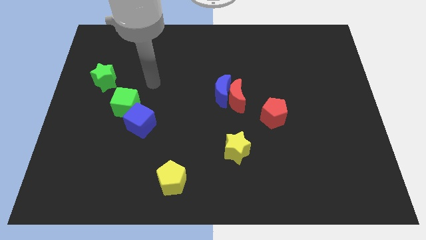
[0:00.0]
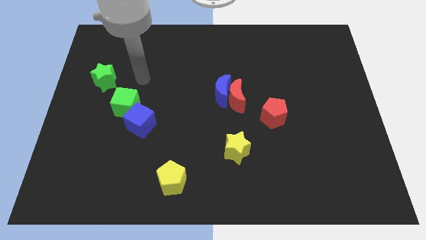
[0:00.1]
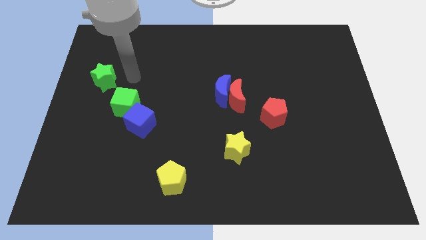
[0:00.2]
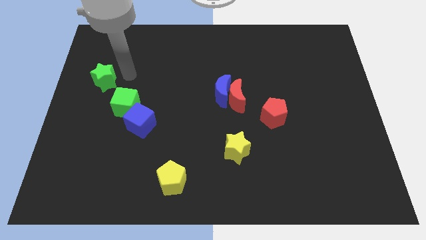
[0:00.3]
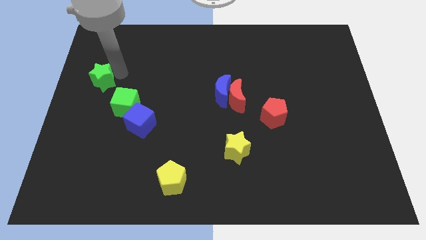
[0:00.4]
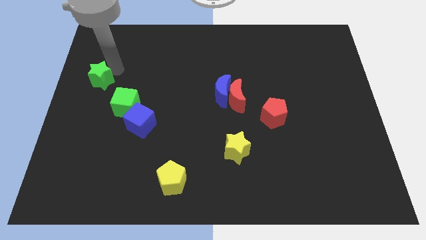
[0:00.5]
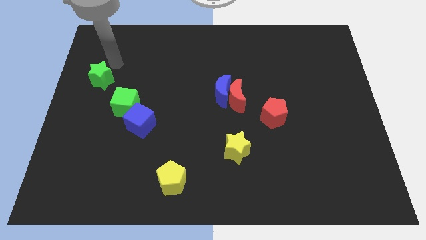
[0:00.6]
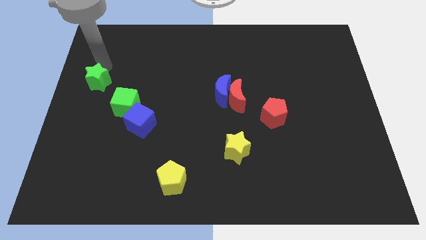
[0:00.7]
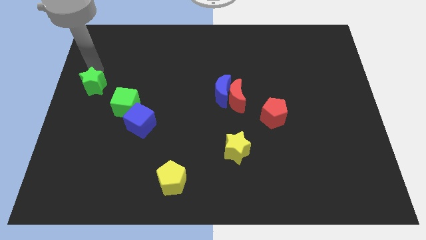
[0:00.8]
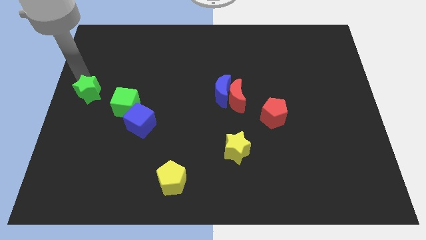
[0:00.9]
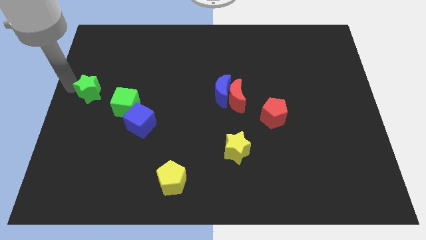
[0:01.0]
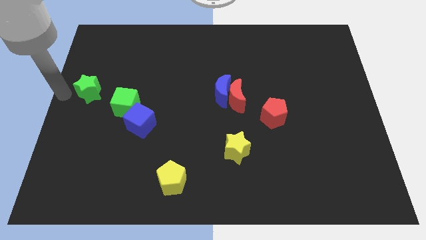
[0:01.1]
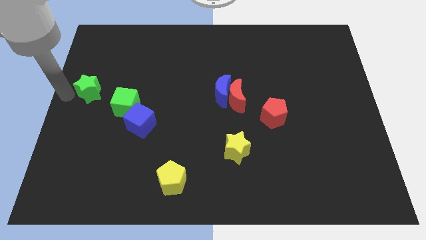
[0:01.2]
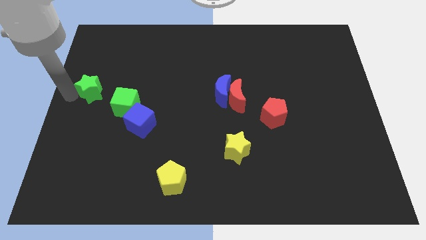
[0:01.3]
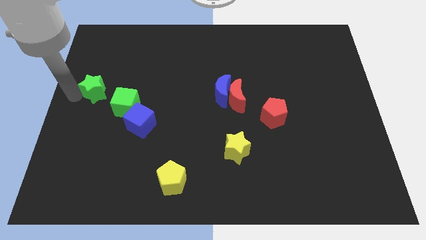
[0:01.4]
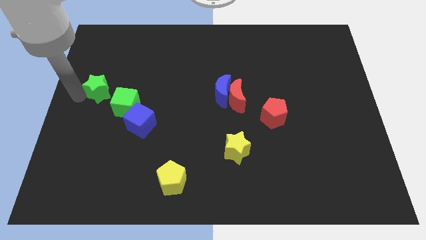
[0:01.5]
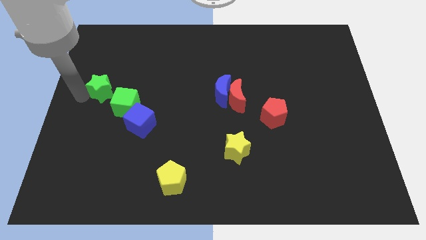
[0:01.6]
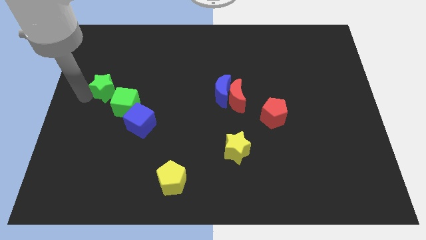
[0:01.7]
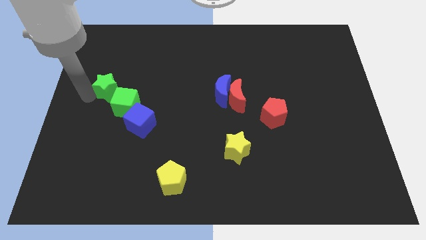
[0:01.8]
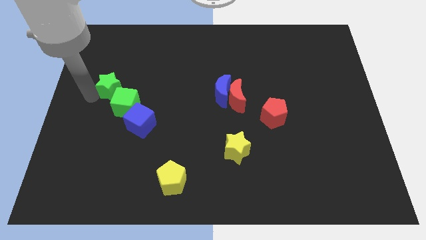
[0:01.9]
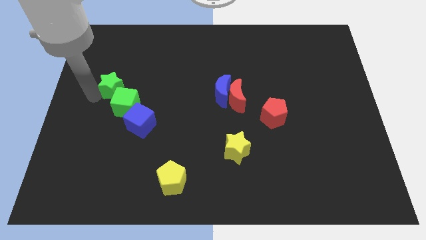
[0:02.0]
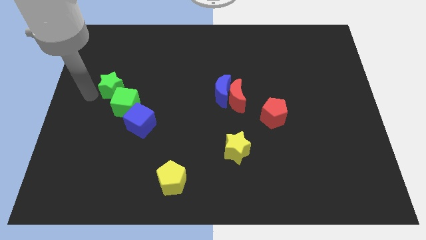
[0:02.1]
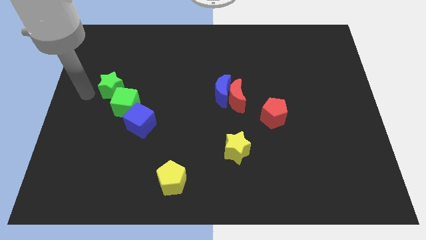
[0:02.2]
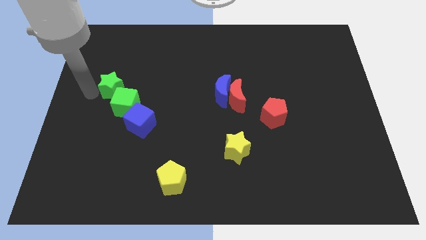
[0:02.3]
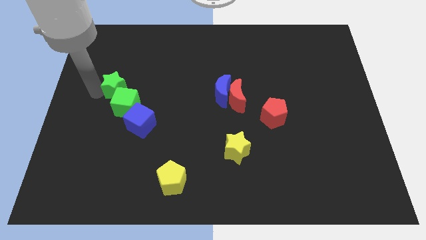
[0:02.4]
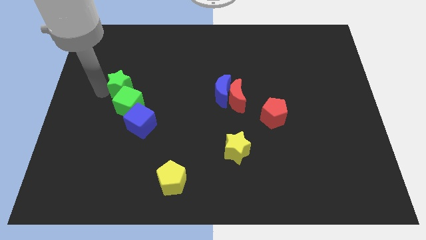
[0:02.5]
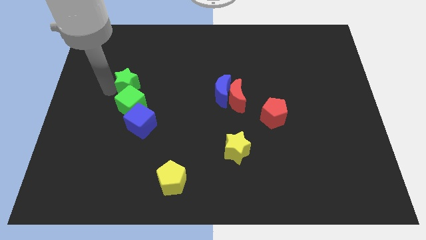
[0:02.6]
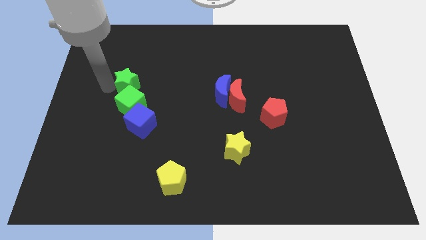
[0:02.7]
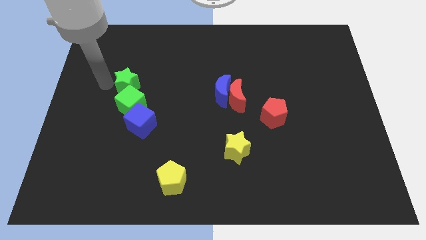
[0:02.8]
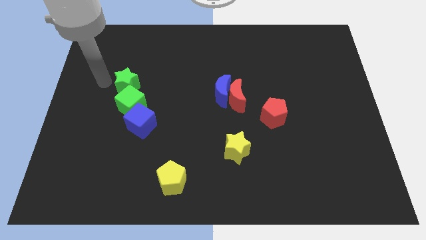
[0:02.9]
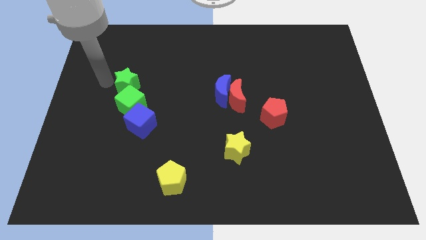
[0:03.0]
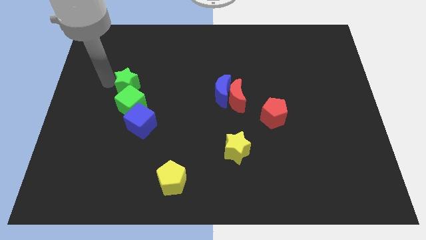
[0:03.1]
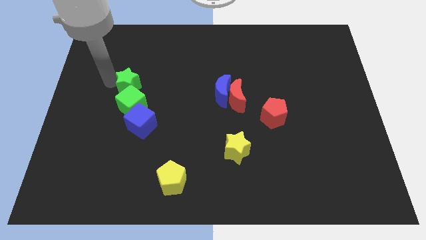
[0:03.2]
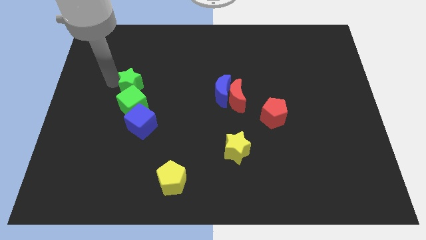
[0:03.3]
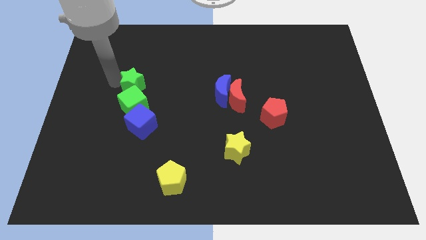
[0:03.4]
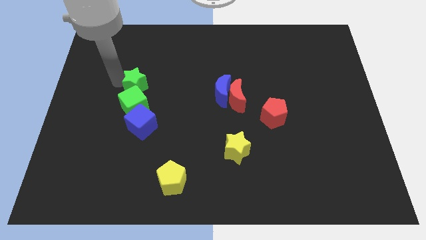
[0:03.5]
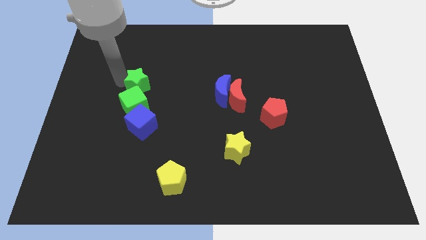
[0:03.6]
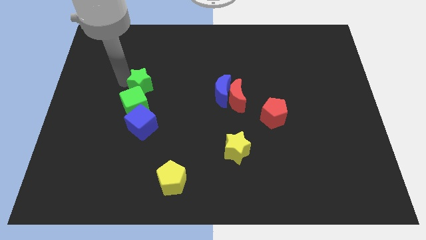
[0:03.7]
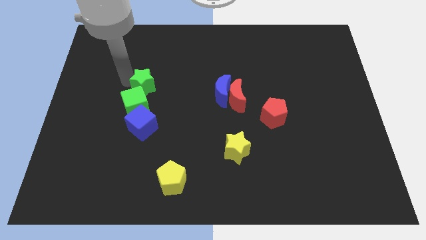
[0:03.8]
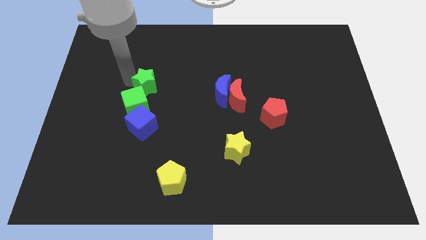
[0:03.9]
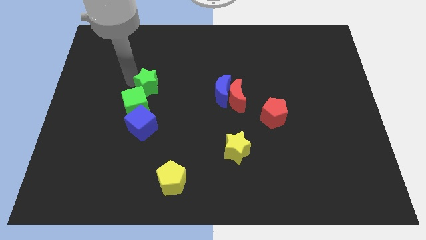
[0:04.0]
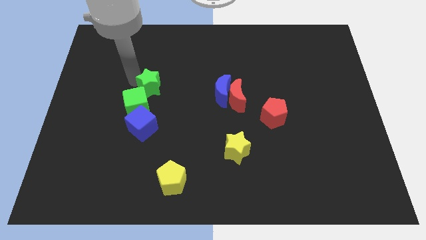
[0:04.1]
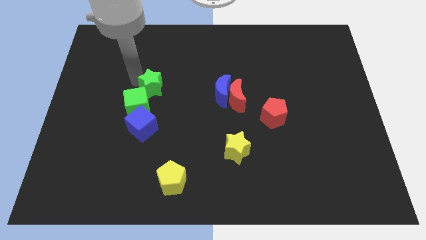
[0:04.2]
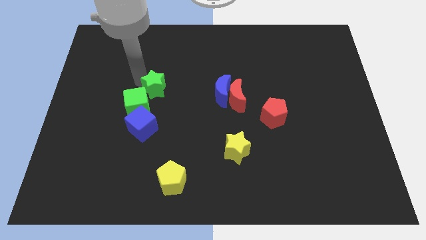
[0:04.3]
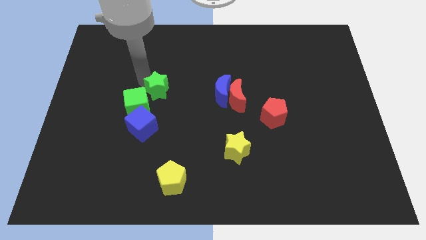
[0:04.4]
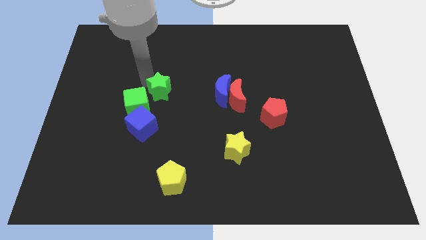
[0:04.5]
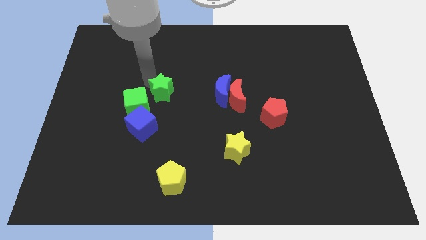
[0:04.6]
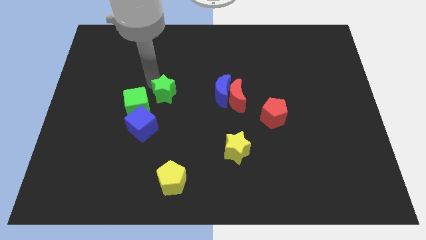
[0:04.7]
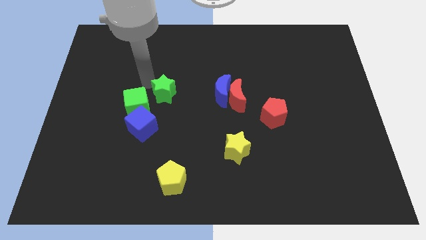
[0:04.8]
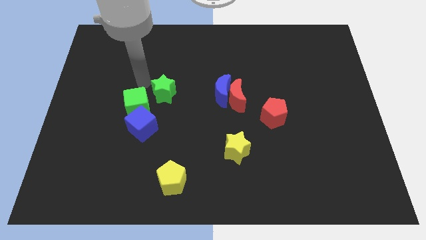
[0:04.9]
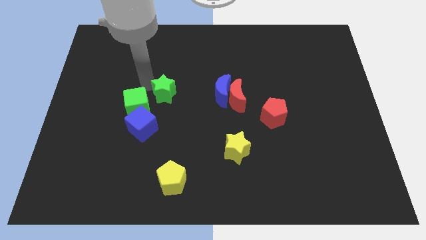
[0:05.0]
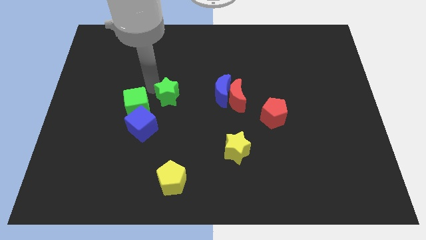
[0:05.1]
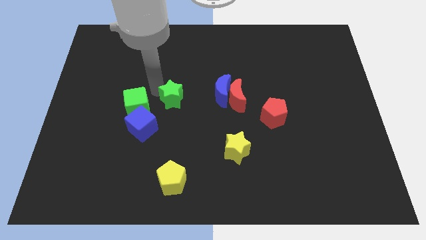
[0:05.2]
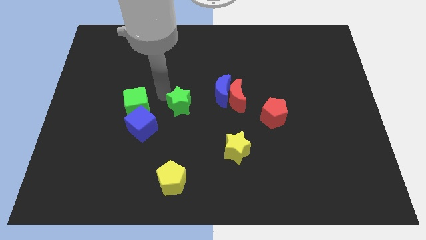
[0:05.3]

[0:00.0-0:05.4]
push the green star to the bottom left of the blue moon

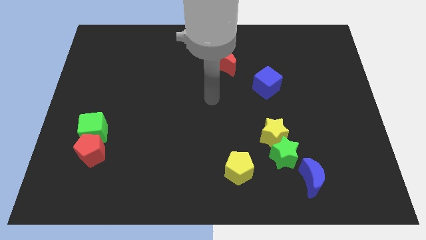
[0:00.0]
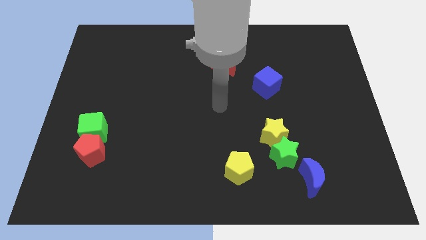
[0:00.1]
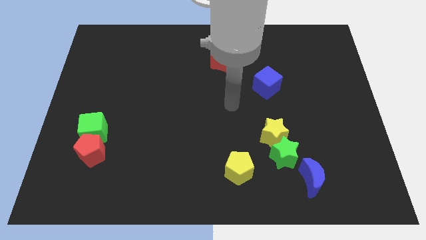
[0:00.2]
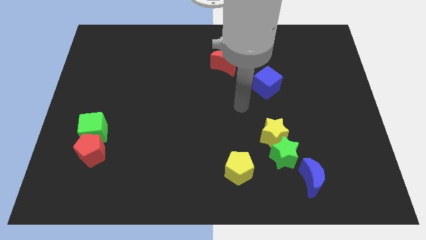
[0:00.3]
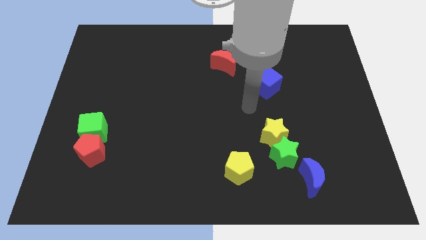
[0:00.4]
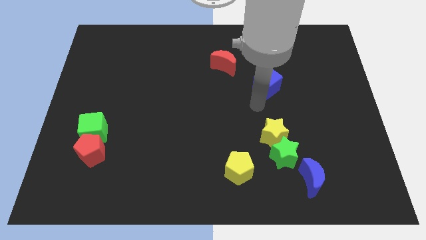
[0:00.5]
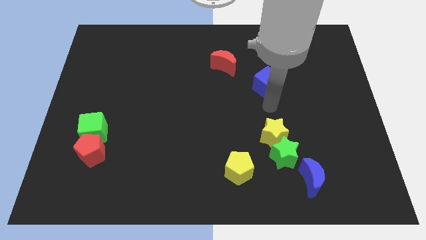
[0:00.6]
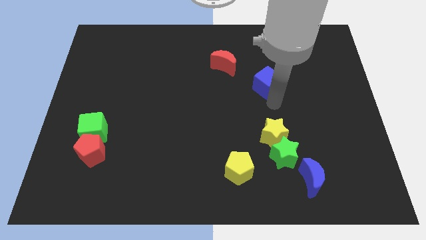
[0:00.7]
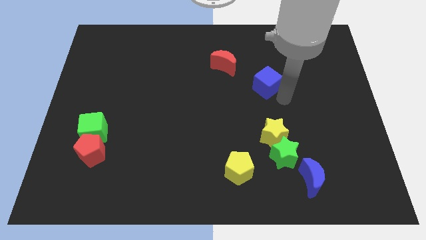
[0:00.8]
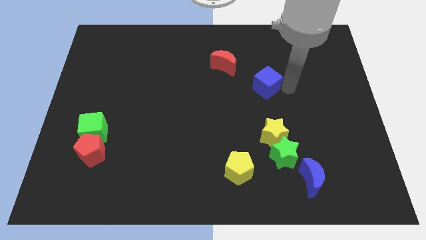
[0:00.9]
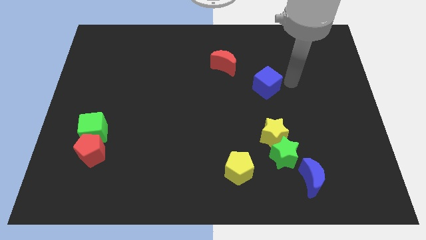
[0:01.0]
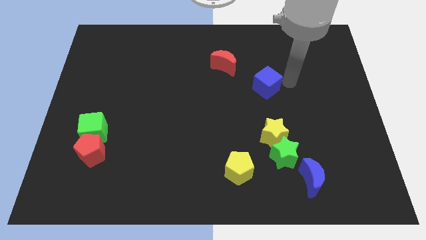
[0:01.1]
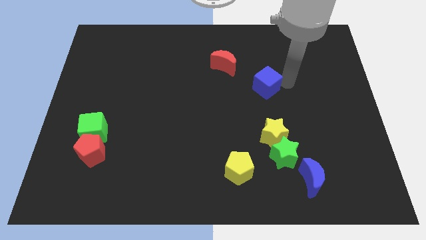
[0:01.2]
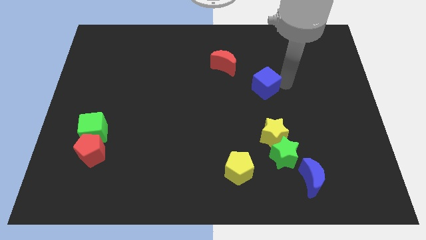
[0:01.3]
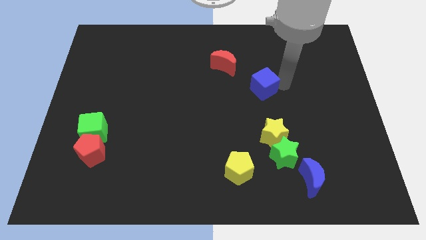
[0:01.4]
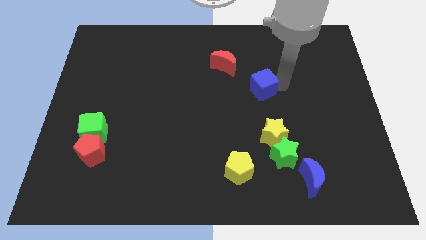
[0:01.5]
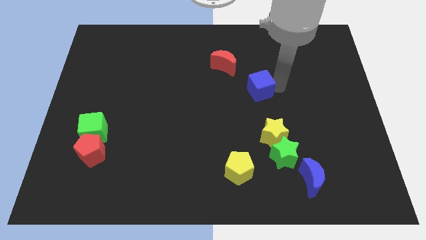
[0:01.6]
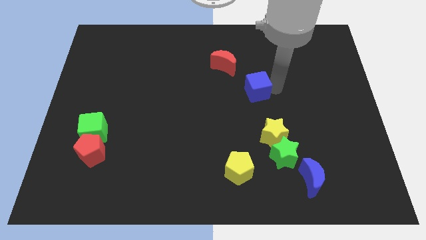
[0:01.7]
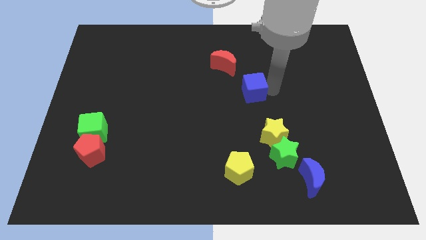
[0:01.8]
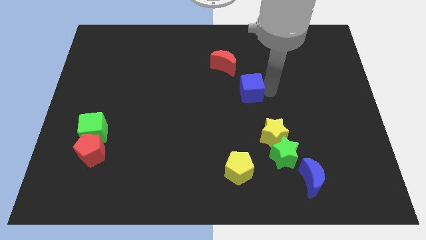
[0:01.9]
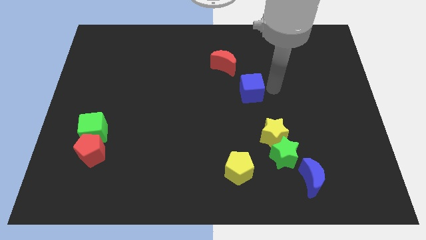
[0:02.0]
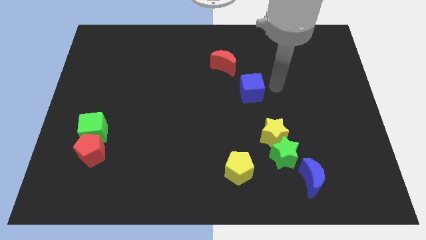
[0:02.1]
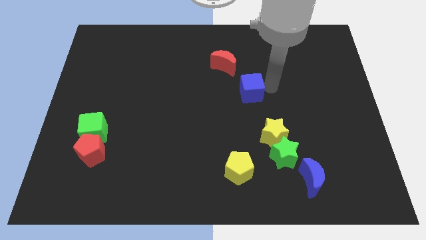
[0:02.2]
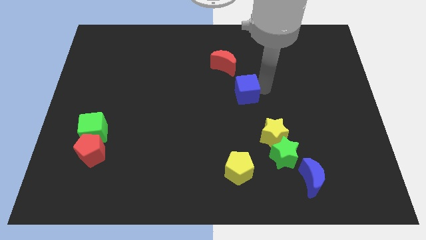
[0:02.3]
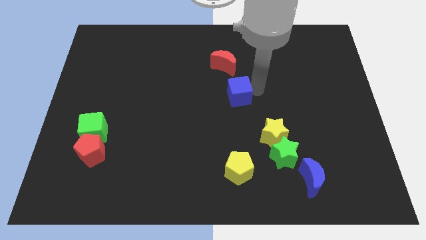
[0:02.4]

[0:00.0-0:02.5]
push the blue cube below the red moon
